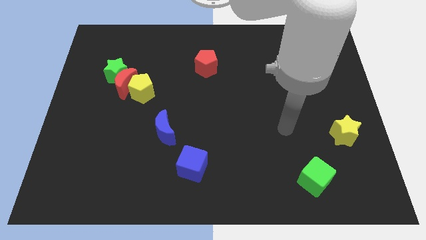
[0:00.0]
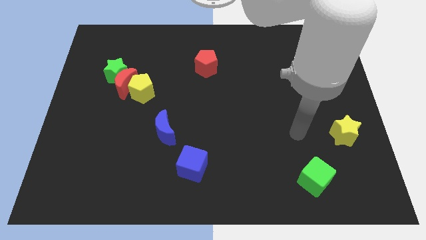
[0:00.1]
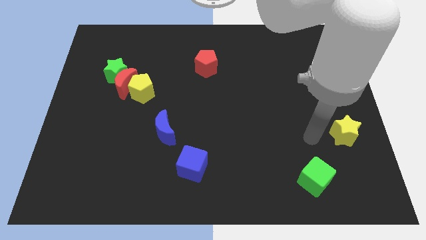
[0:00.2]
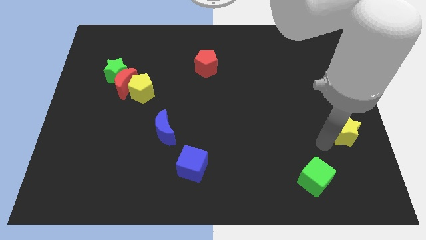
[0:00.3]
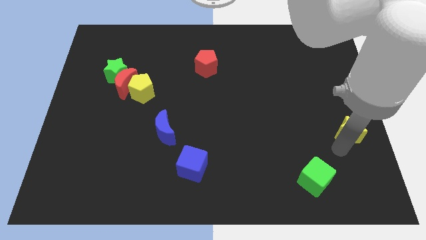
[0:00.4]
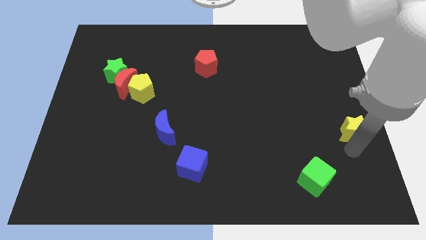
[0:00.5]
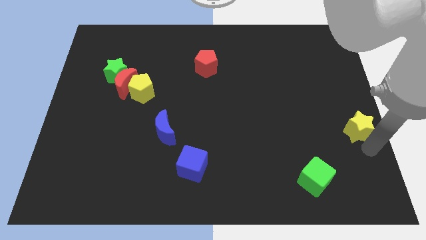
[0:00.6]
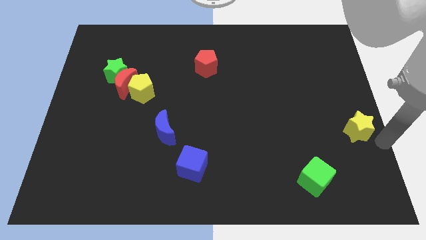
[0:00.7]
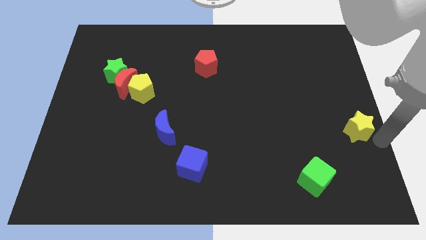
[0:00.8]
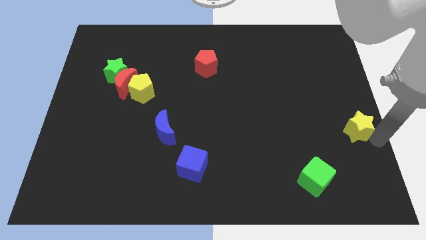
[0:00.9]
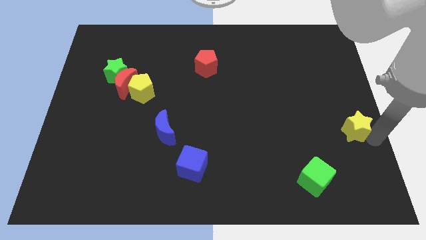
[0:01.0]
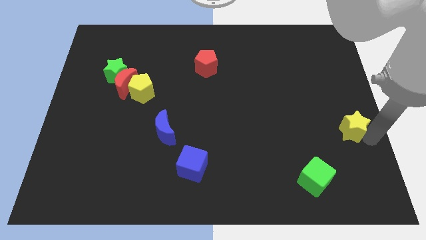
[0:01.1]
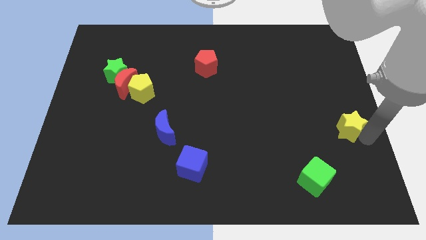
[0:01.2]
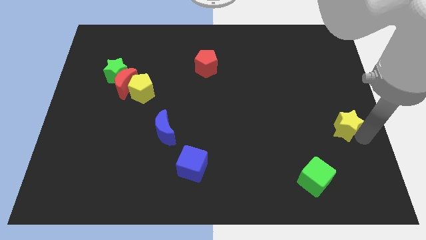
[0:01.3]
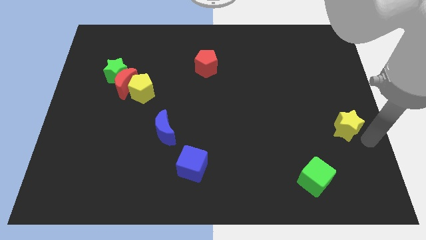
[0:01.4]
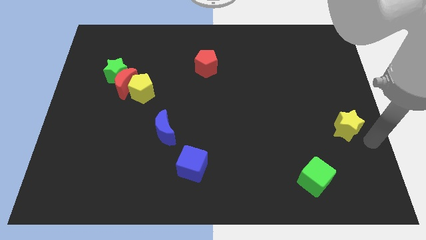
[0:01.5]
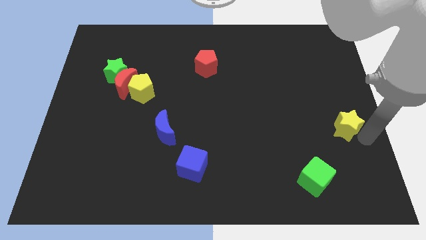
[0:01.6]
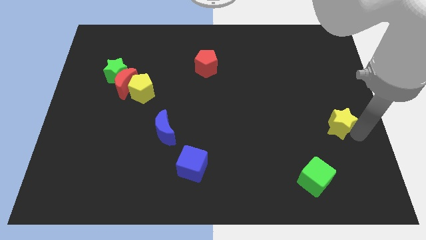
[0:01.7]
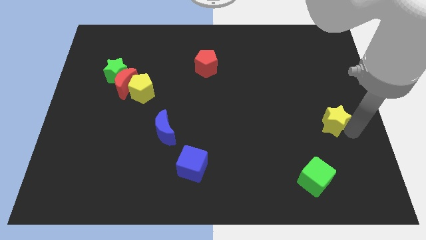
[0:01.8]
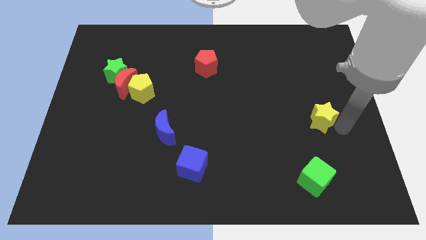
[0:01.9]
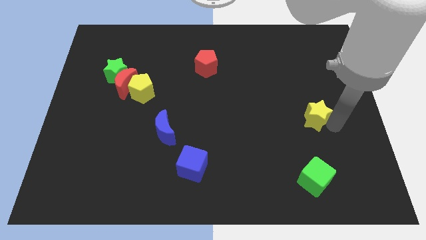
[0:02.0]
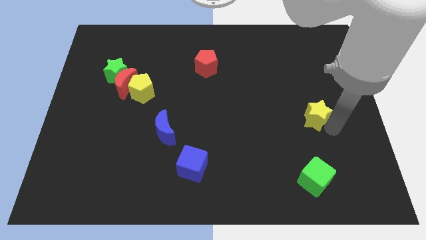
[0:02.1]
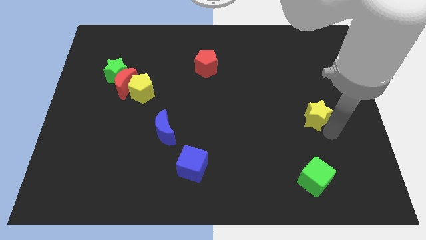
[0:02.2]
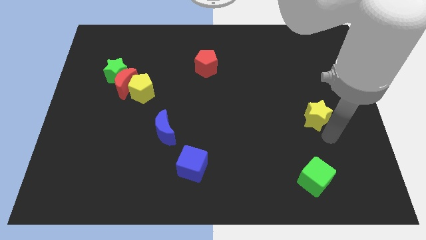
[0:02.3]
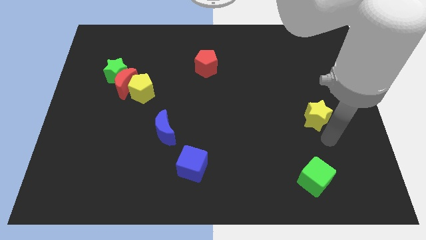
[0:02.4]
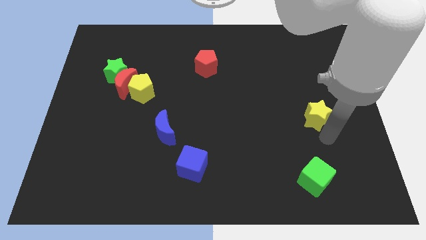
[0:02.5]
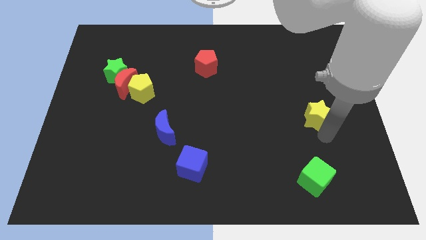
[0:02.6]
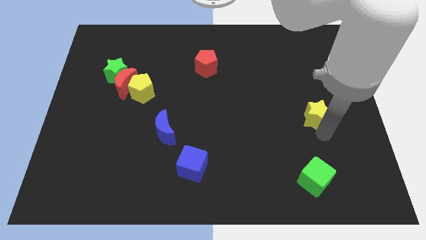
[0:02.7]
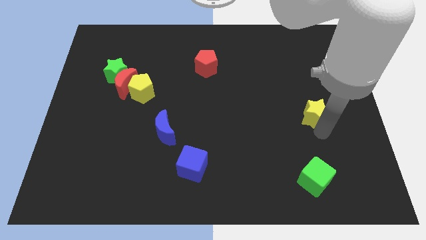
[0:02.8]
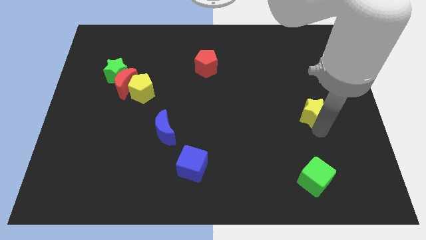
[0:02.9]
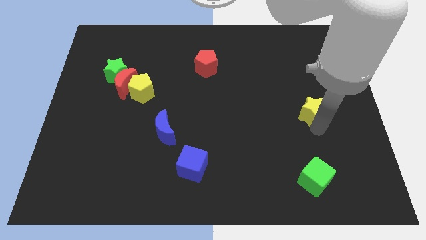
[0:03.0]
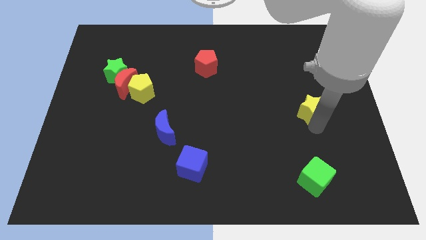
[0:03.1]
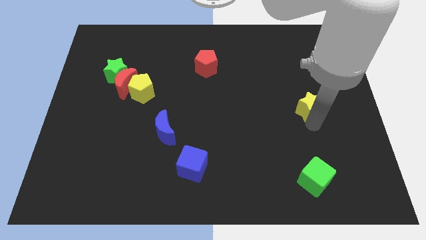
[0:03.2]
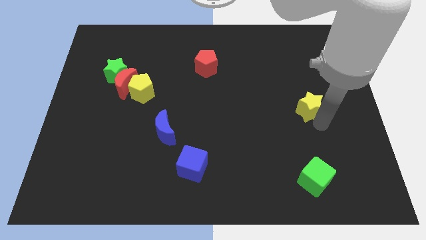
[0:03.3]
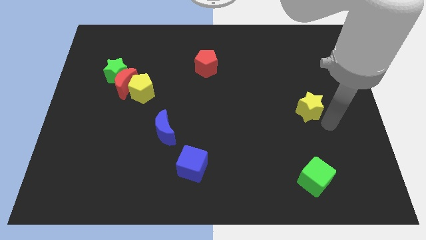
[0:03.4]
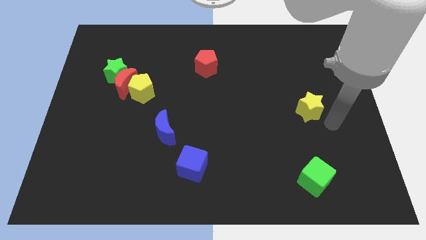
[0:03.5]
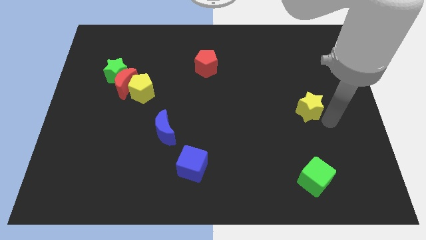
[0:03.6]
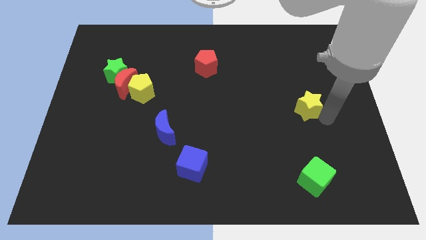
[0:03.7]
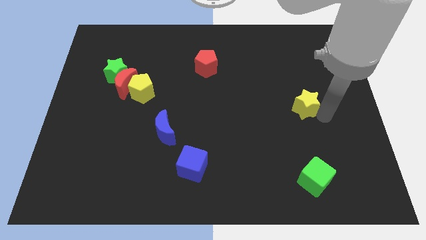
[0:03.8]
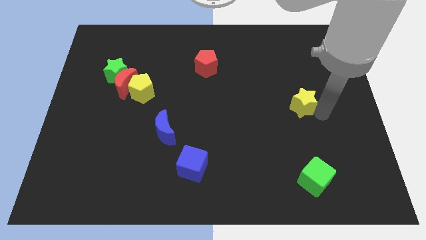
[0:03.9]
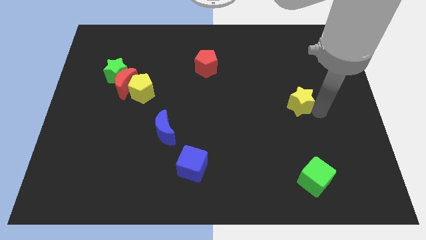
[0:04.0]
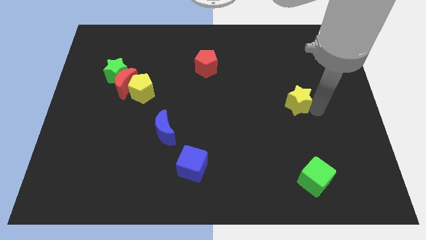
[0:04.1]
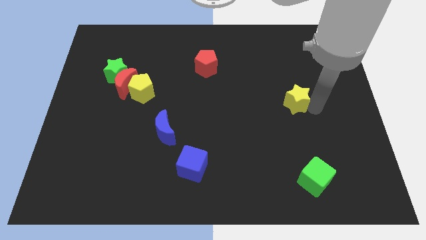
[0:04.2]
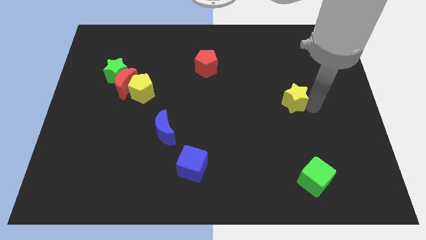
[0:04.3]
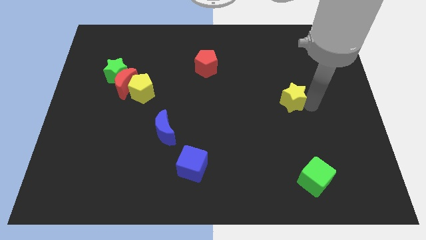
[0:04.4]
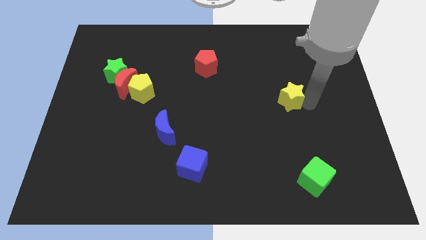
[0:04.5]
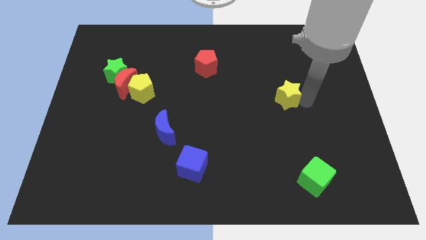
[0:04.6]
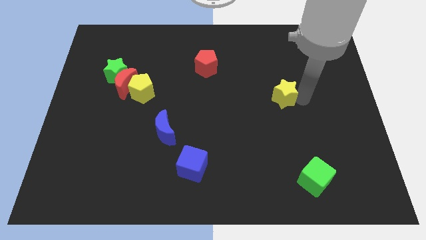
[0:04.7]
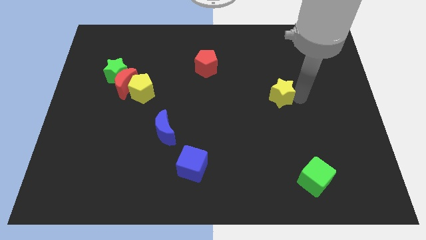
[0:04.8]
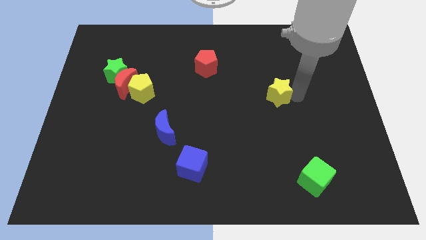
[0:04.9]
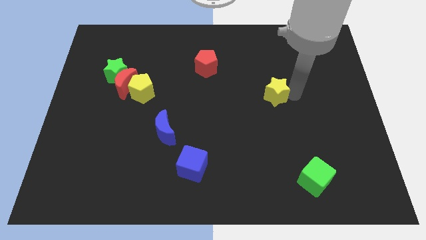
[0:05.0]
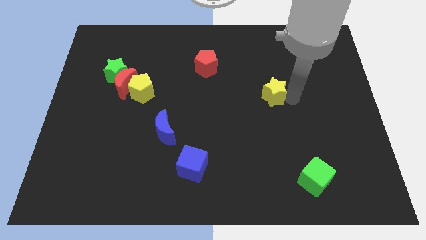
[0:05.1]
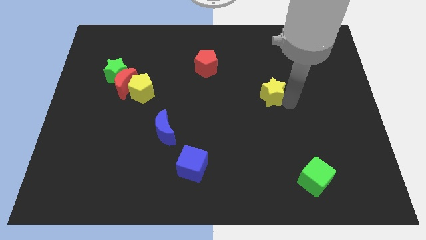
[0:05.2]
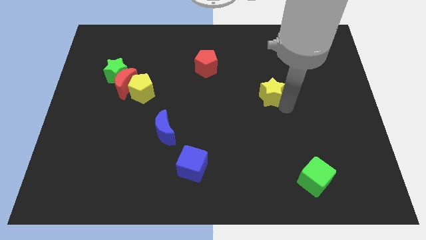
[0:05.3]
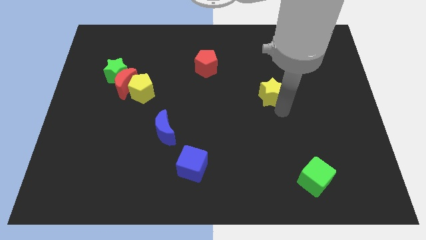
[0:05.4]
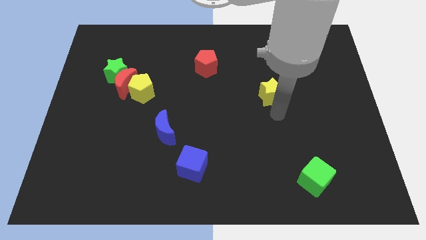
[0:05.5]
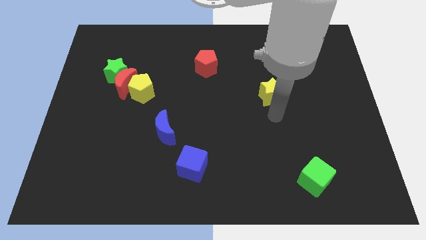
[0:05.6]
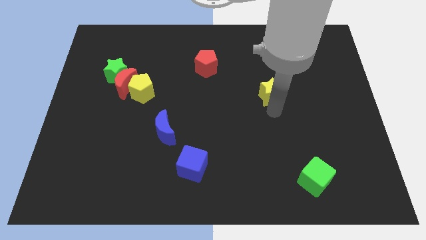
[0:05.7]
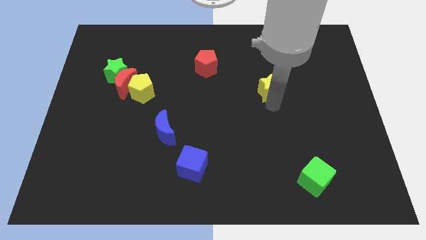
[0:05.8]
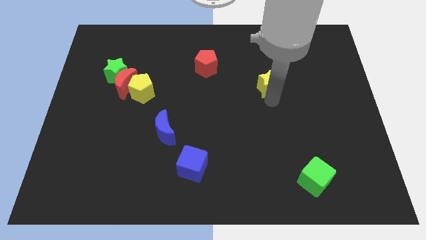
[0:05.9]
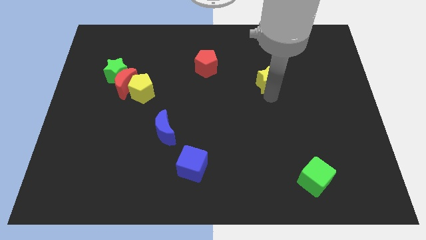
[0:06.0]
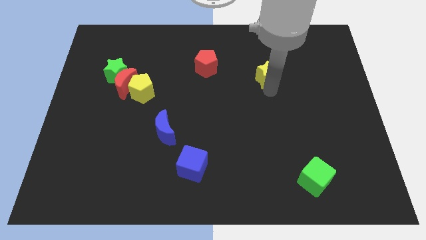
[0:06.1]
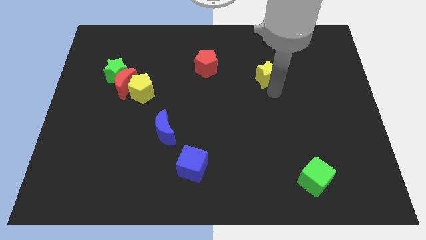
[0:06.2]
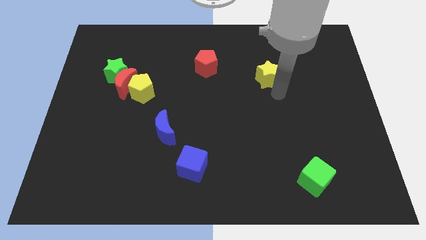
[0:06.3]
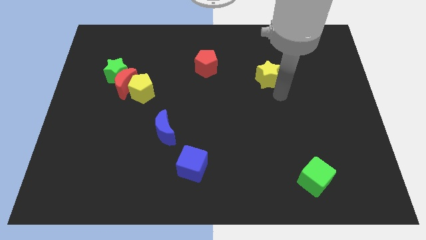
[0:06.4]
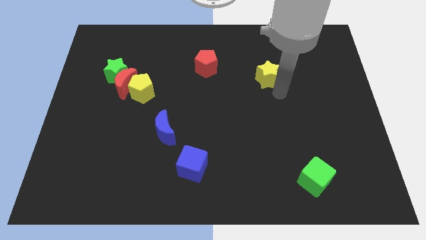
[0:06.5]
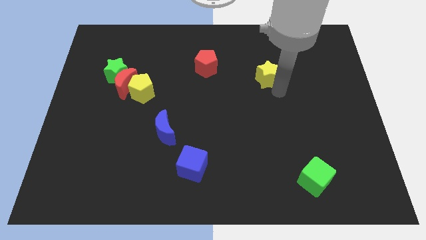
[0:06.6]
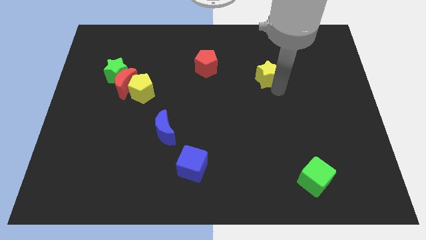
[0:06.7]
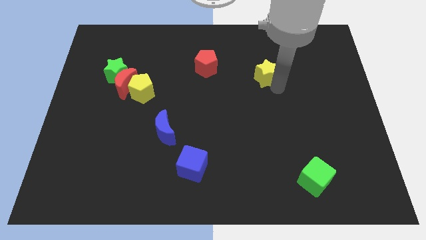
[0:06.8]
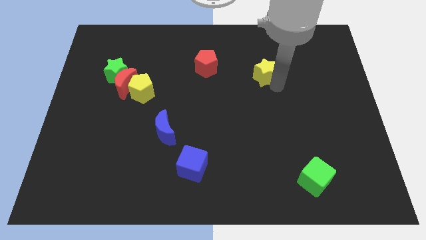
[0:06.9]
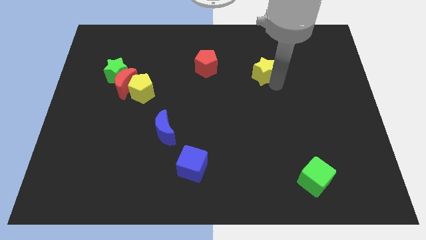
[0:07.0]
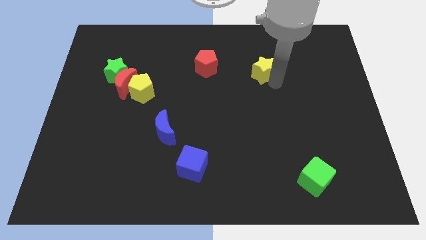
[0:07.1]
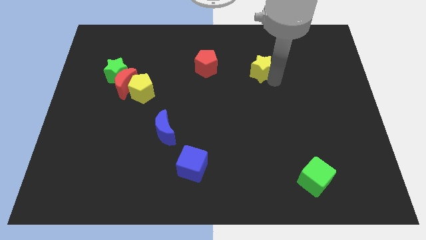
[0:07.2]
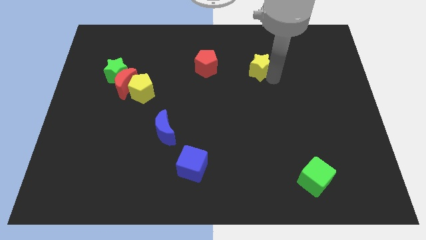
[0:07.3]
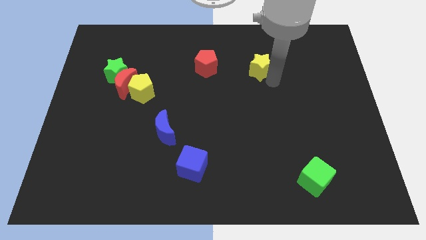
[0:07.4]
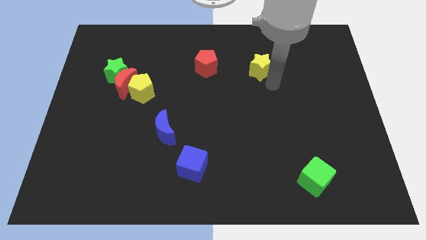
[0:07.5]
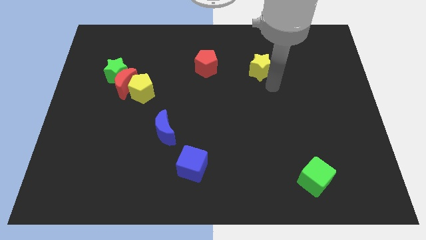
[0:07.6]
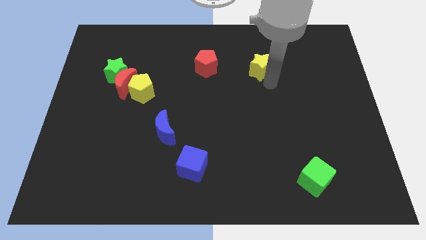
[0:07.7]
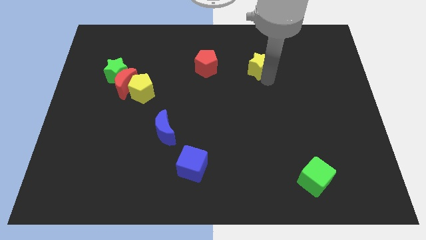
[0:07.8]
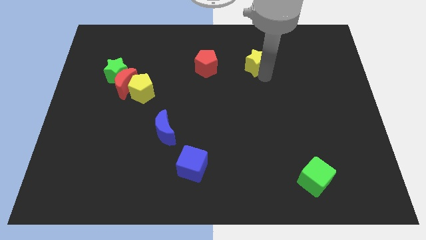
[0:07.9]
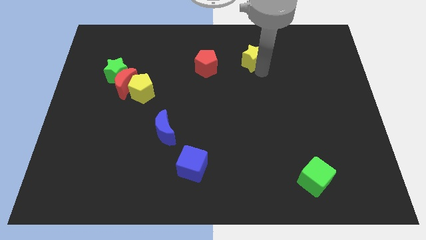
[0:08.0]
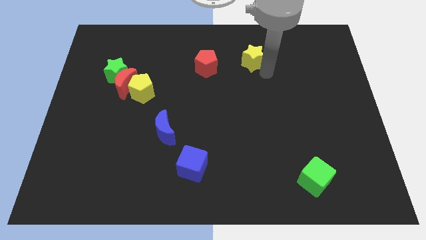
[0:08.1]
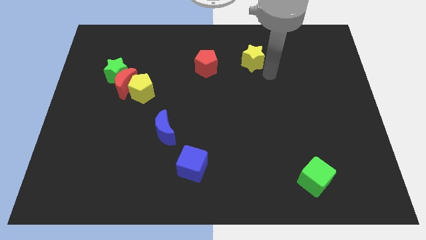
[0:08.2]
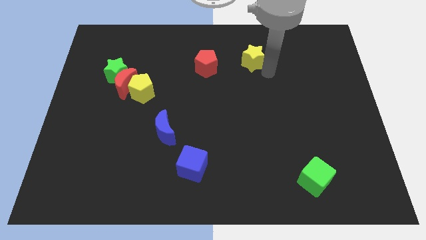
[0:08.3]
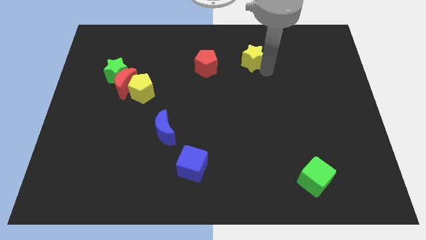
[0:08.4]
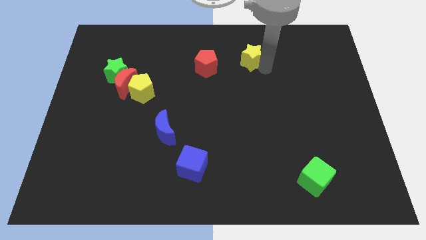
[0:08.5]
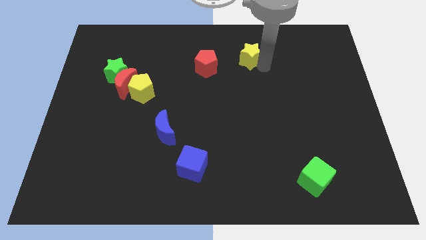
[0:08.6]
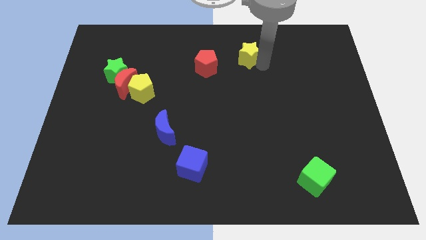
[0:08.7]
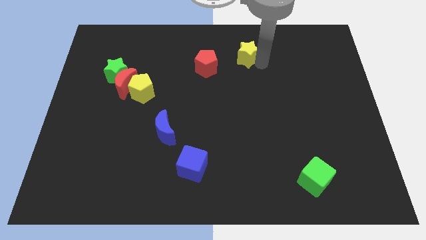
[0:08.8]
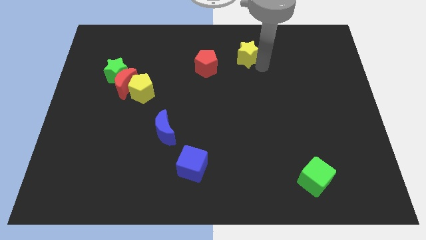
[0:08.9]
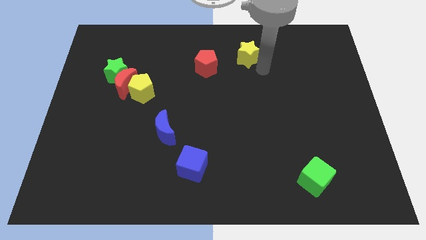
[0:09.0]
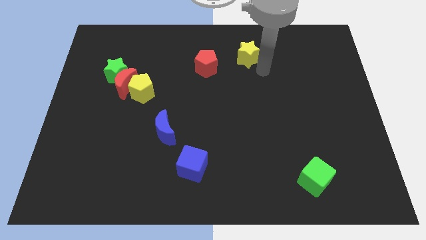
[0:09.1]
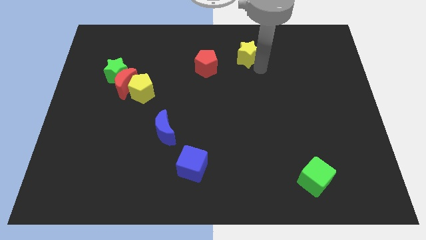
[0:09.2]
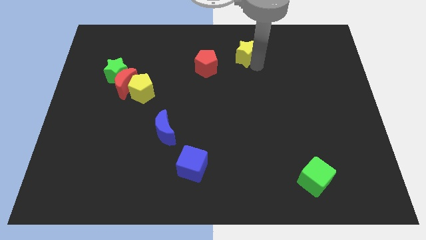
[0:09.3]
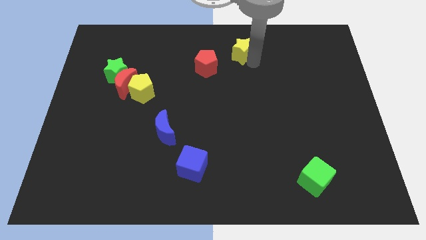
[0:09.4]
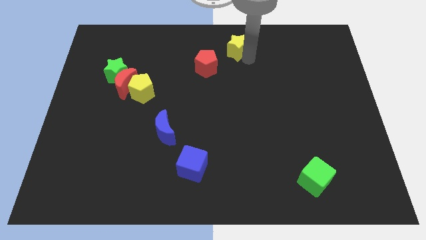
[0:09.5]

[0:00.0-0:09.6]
push the yellow star to the top
